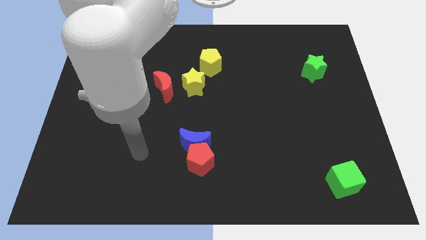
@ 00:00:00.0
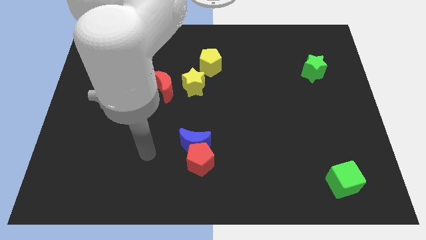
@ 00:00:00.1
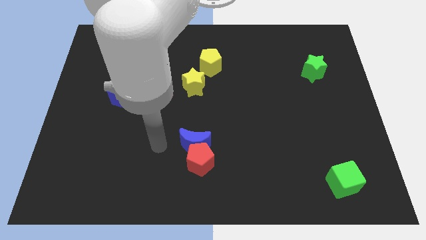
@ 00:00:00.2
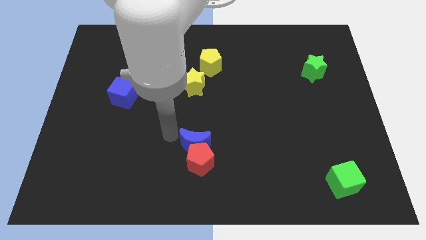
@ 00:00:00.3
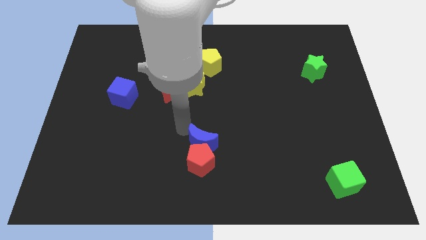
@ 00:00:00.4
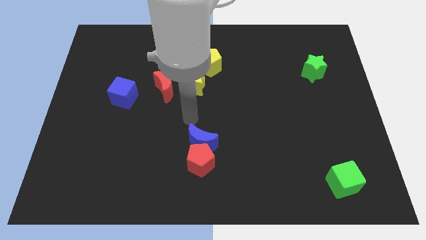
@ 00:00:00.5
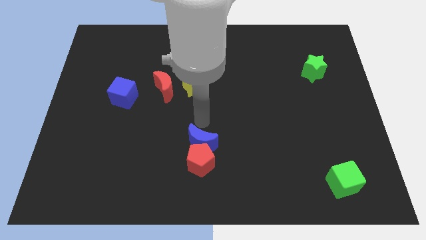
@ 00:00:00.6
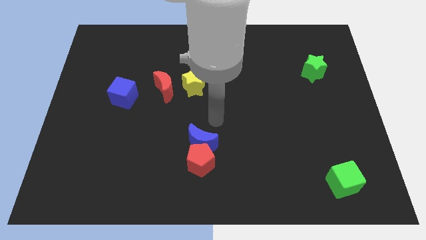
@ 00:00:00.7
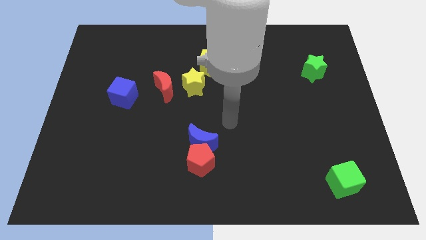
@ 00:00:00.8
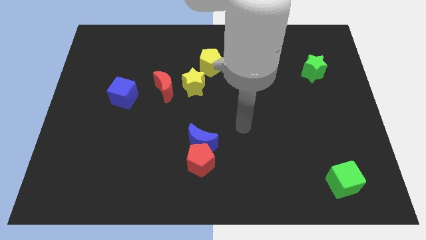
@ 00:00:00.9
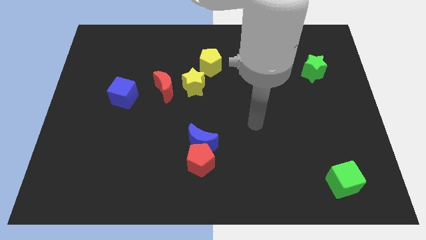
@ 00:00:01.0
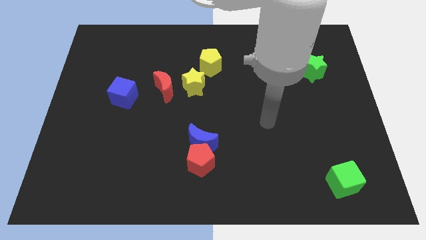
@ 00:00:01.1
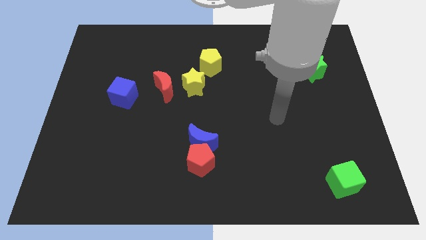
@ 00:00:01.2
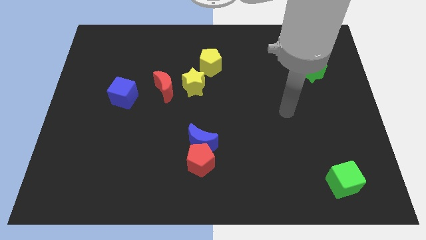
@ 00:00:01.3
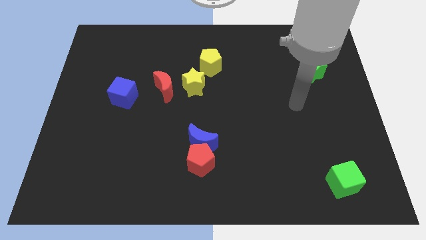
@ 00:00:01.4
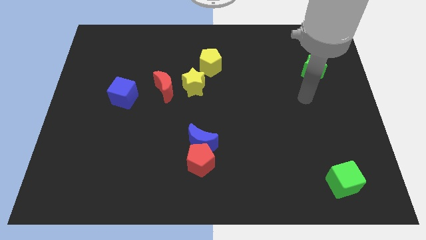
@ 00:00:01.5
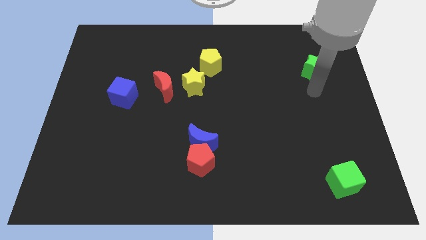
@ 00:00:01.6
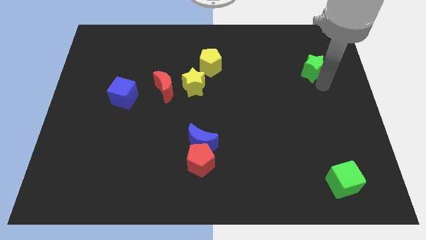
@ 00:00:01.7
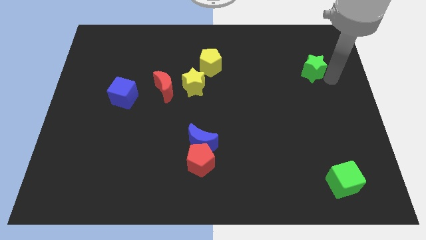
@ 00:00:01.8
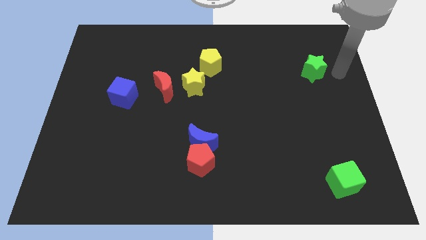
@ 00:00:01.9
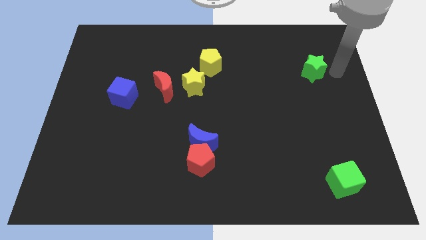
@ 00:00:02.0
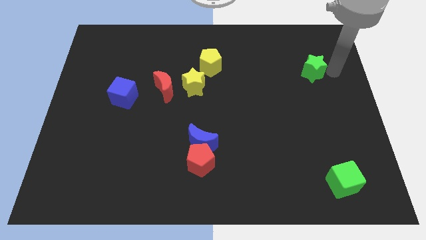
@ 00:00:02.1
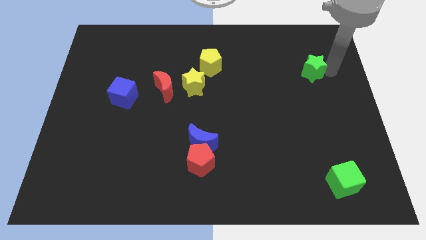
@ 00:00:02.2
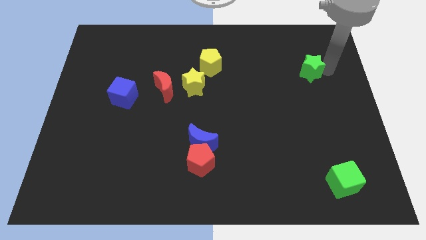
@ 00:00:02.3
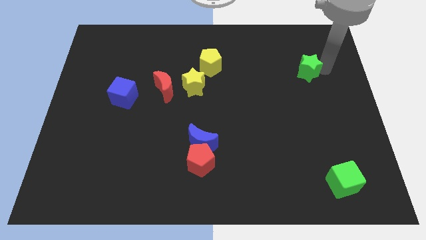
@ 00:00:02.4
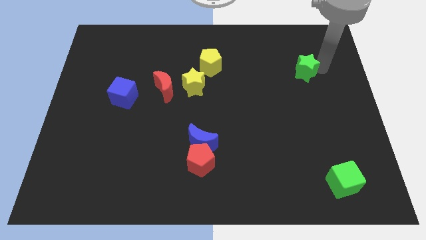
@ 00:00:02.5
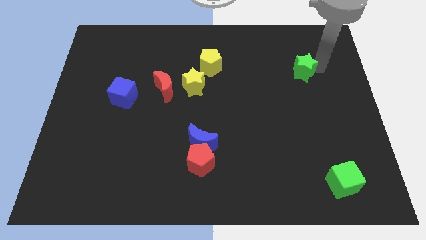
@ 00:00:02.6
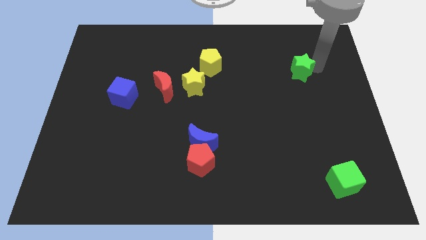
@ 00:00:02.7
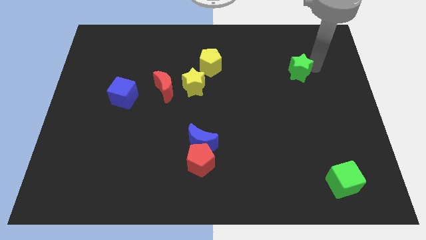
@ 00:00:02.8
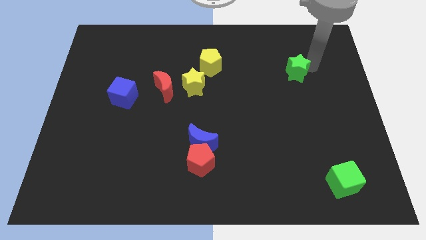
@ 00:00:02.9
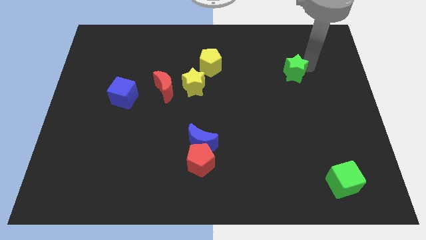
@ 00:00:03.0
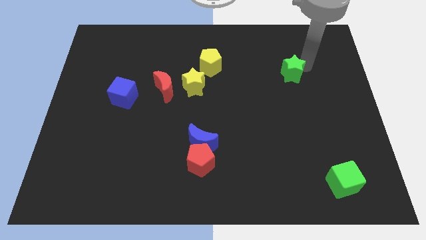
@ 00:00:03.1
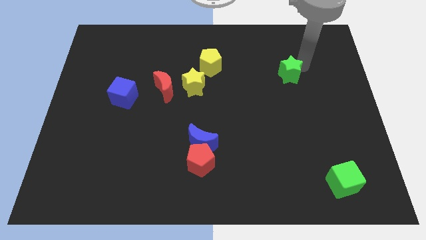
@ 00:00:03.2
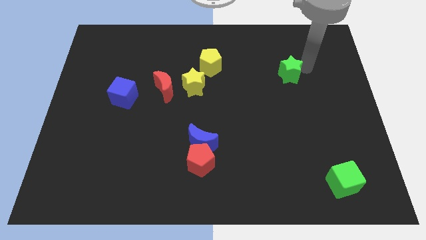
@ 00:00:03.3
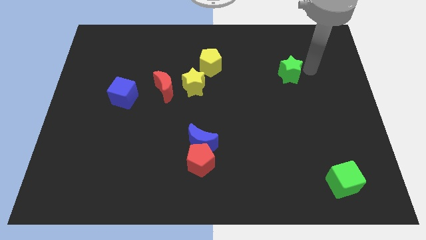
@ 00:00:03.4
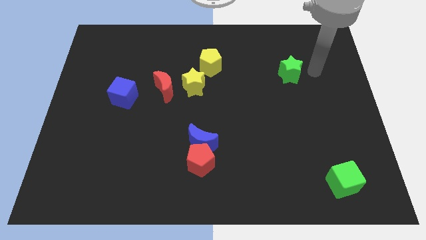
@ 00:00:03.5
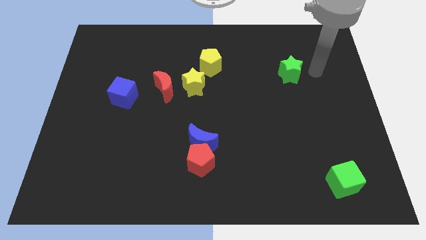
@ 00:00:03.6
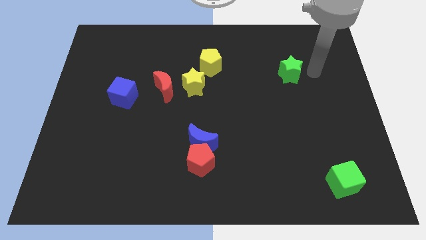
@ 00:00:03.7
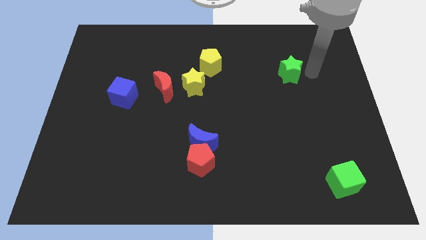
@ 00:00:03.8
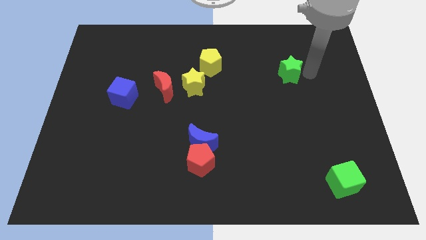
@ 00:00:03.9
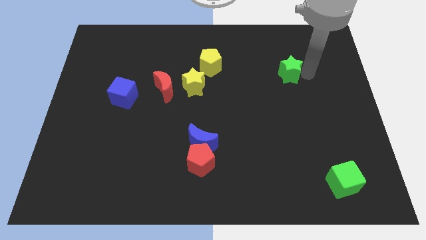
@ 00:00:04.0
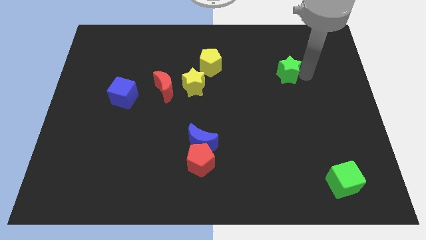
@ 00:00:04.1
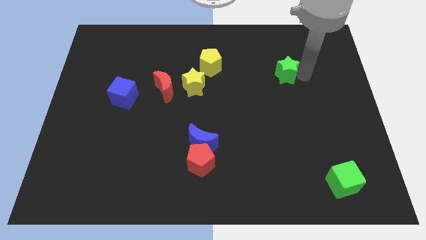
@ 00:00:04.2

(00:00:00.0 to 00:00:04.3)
slightly move the green star to the left

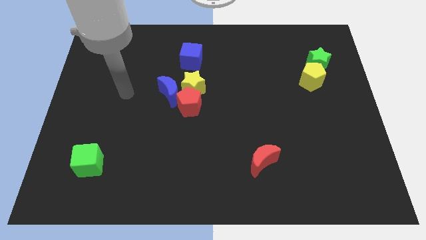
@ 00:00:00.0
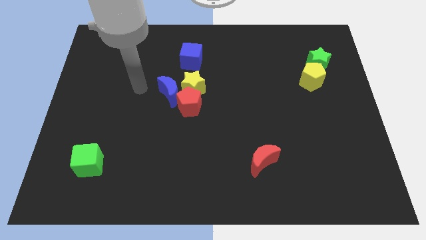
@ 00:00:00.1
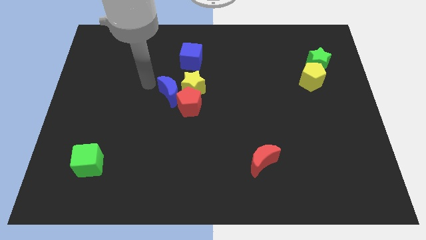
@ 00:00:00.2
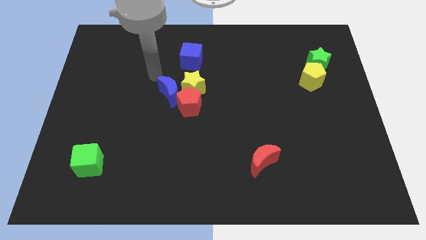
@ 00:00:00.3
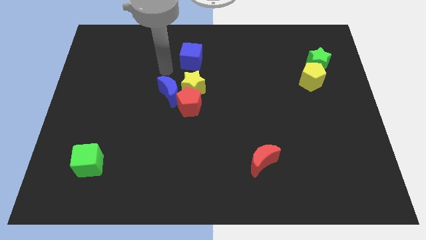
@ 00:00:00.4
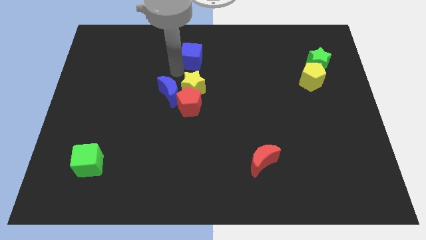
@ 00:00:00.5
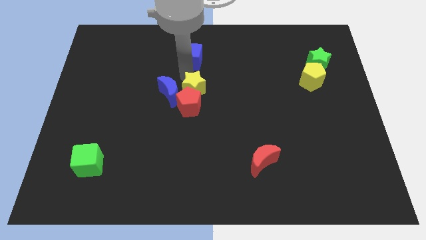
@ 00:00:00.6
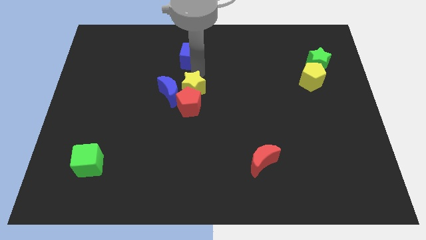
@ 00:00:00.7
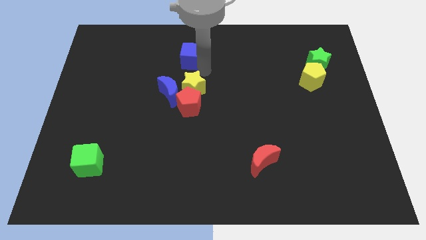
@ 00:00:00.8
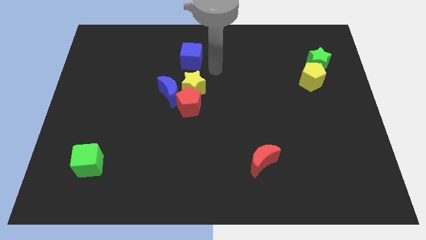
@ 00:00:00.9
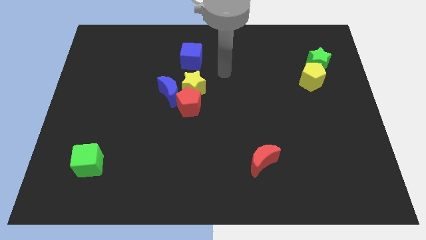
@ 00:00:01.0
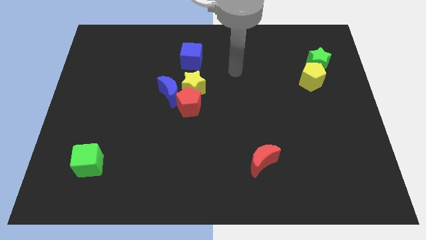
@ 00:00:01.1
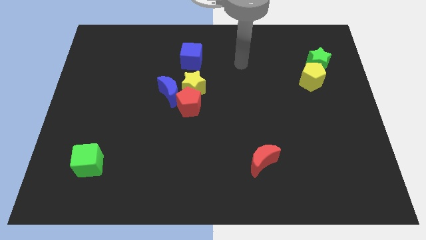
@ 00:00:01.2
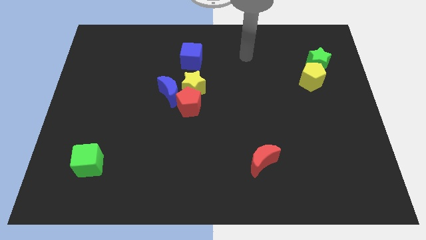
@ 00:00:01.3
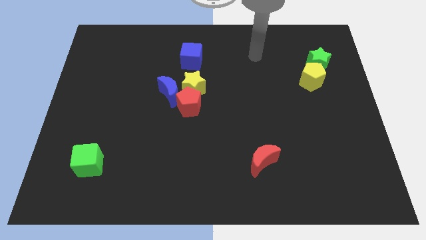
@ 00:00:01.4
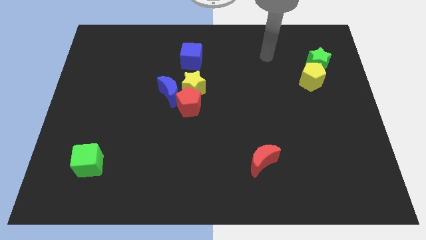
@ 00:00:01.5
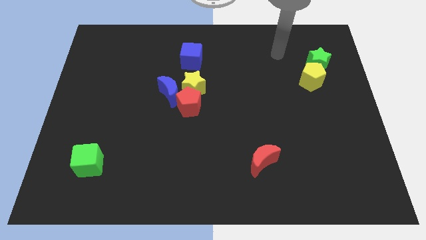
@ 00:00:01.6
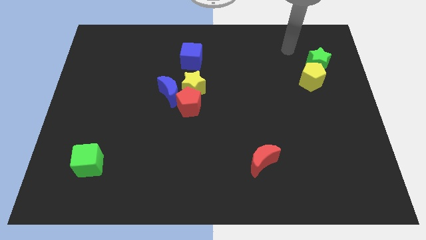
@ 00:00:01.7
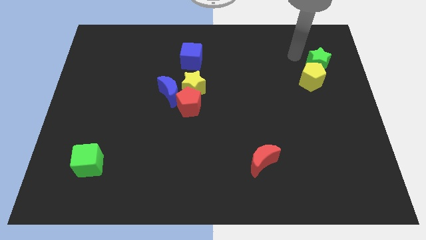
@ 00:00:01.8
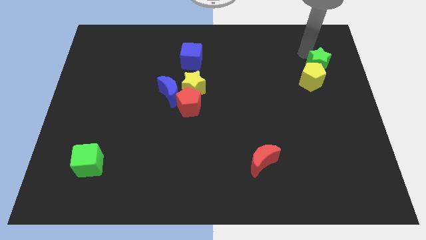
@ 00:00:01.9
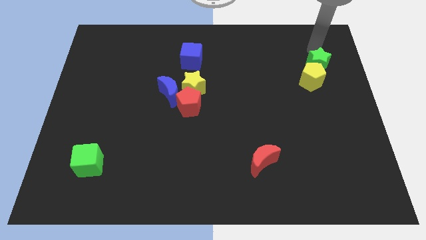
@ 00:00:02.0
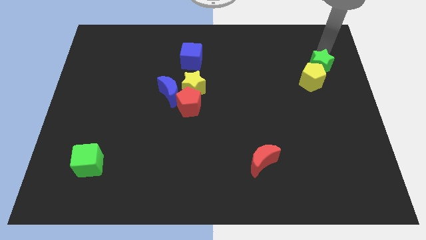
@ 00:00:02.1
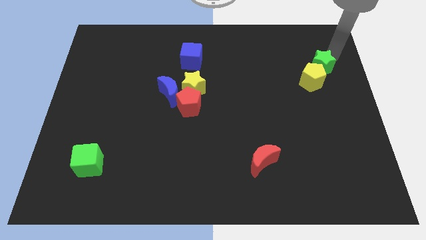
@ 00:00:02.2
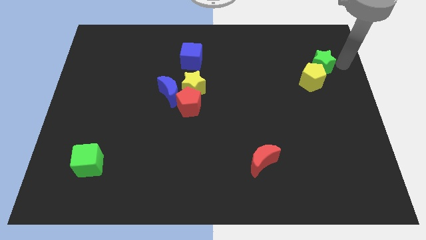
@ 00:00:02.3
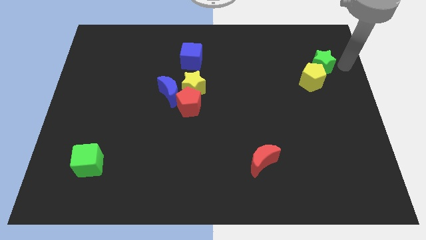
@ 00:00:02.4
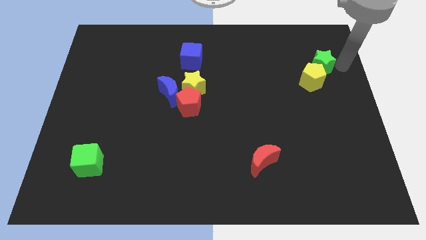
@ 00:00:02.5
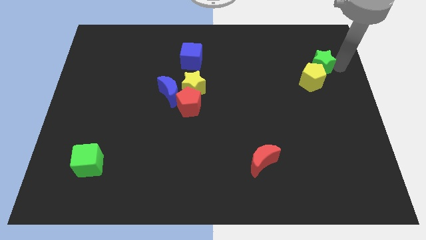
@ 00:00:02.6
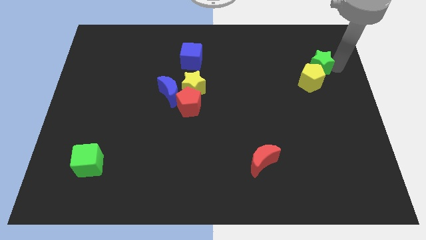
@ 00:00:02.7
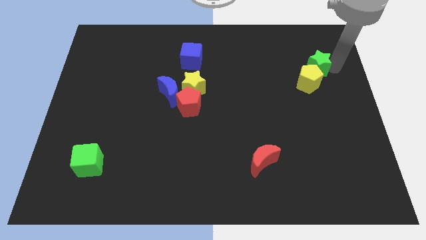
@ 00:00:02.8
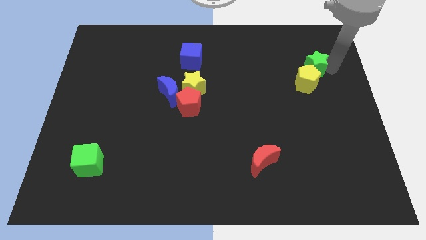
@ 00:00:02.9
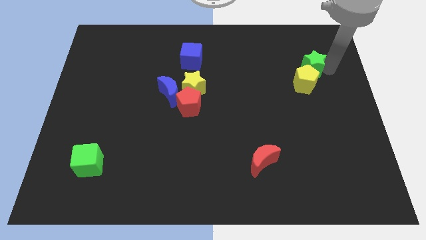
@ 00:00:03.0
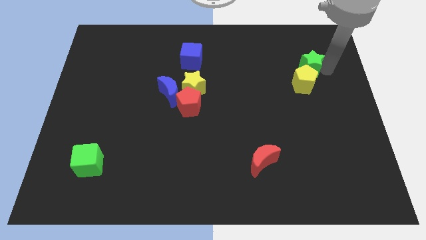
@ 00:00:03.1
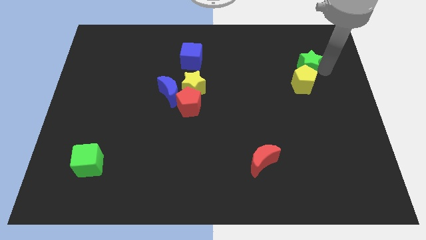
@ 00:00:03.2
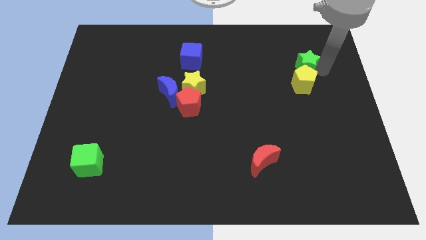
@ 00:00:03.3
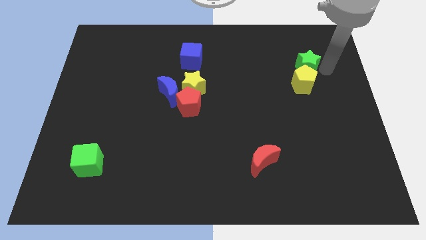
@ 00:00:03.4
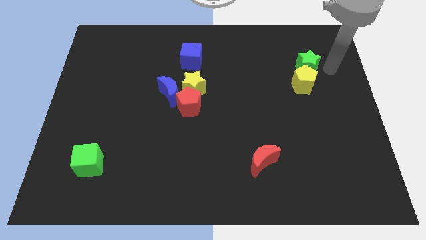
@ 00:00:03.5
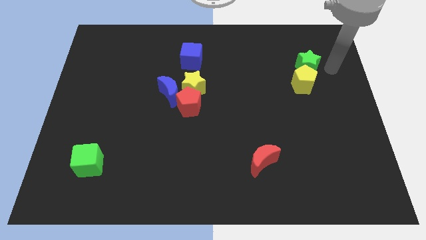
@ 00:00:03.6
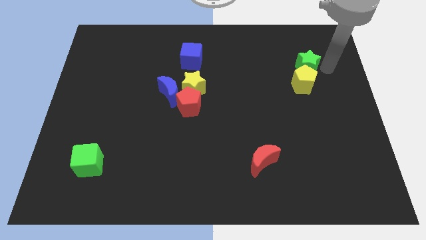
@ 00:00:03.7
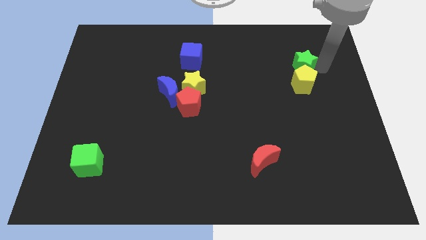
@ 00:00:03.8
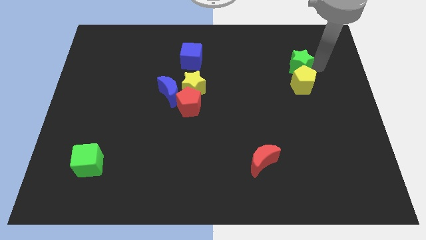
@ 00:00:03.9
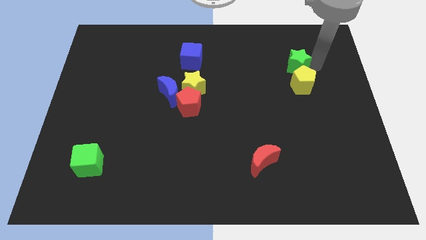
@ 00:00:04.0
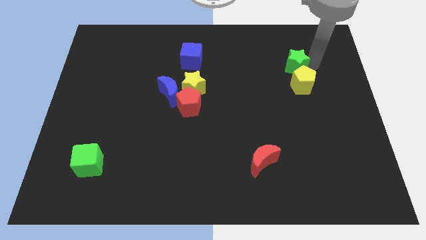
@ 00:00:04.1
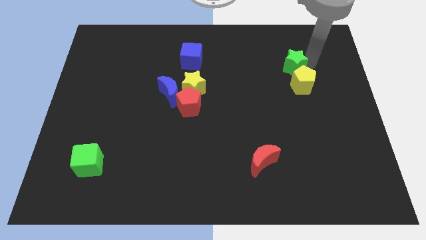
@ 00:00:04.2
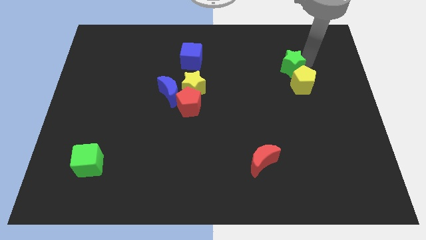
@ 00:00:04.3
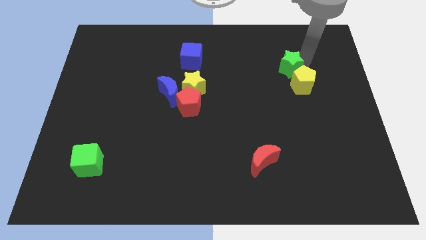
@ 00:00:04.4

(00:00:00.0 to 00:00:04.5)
push the green star to the left somewhat
